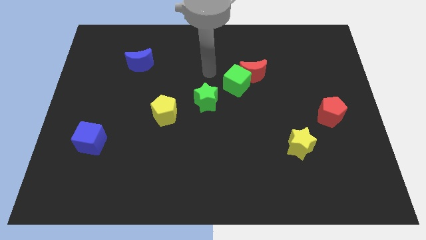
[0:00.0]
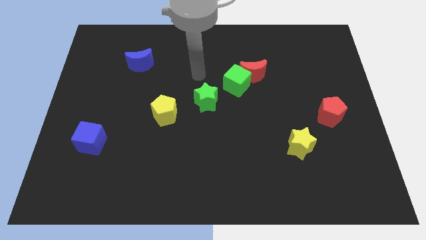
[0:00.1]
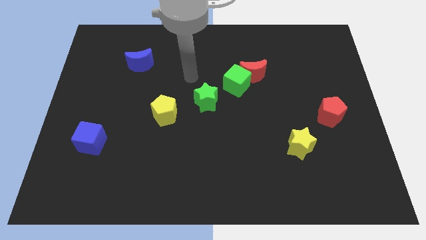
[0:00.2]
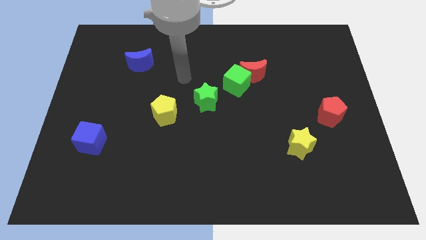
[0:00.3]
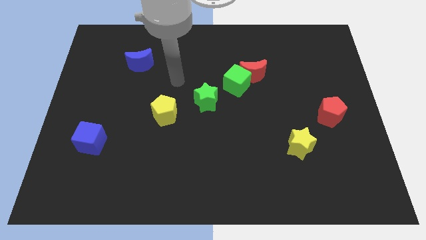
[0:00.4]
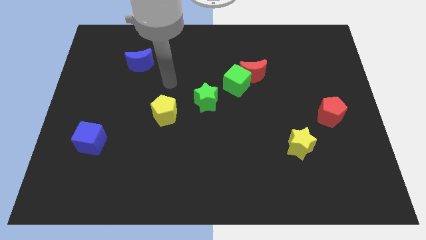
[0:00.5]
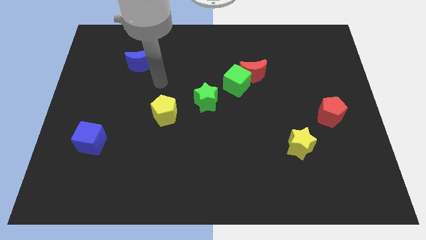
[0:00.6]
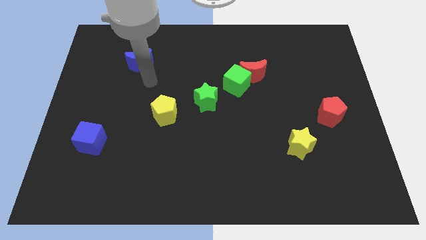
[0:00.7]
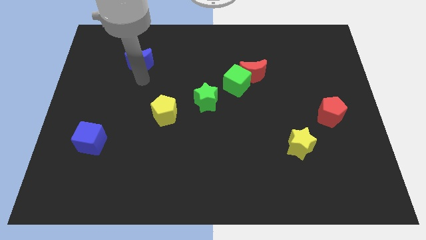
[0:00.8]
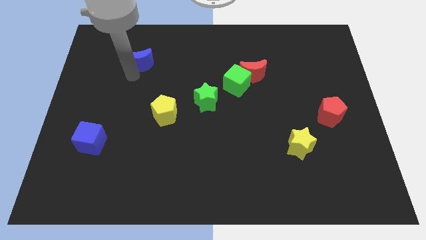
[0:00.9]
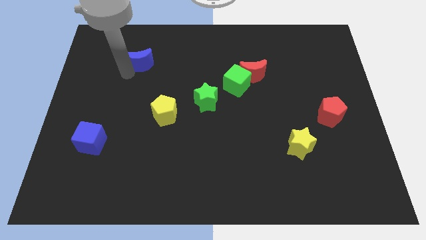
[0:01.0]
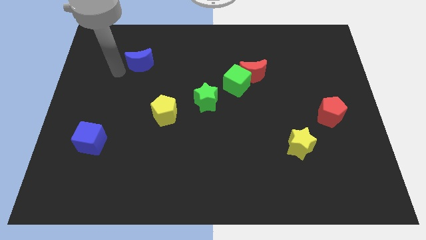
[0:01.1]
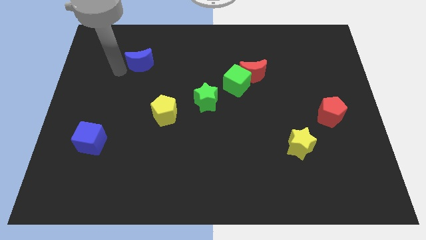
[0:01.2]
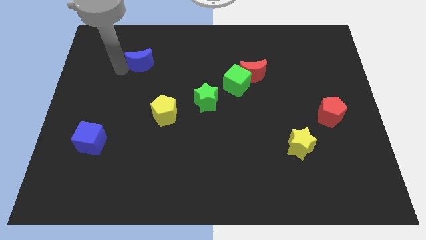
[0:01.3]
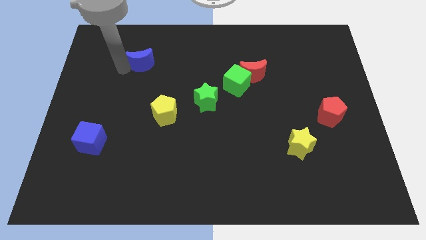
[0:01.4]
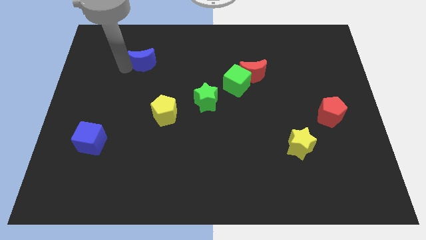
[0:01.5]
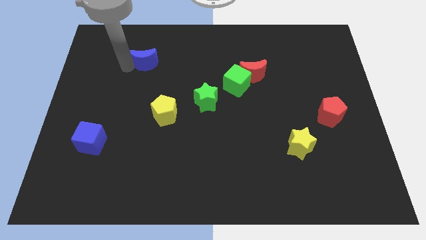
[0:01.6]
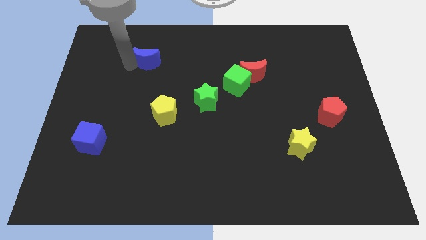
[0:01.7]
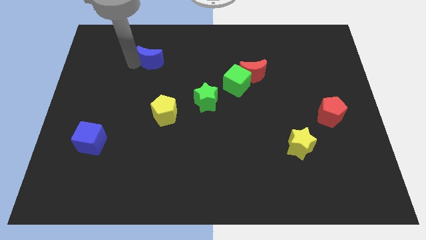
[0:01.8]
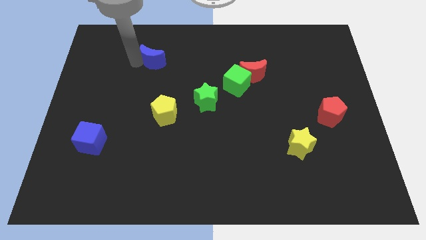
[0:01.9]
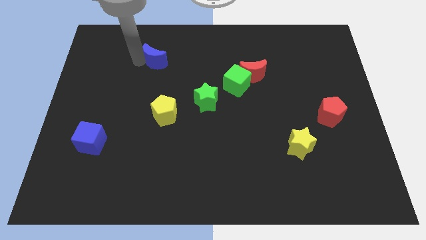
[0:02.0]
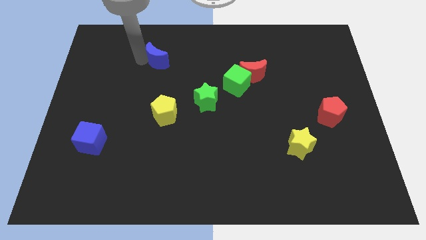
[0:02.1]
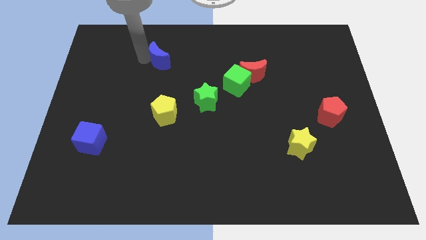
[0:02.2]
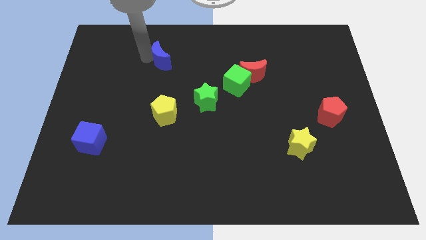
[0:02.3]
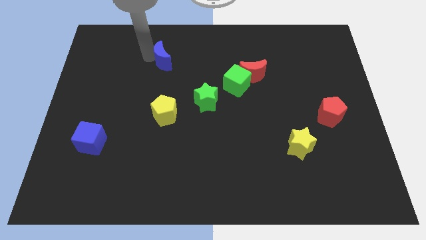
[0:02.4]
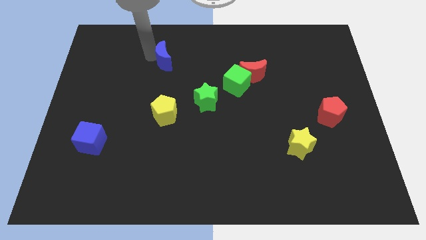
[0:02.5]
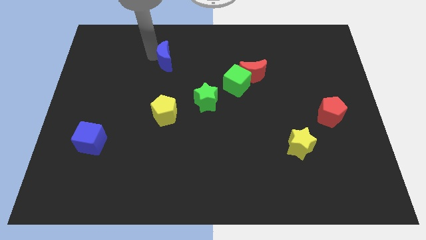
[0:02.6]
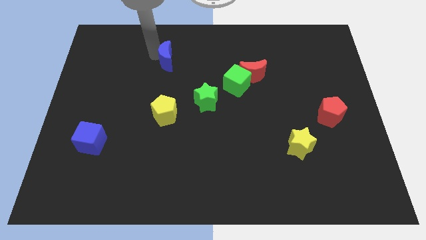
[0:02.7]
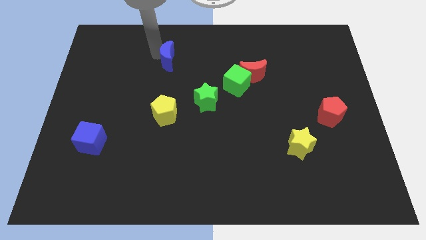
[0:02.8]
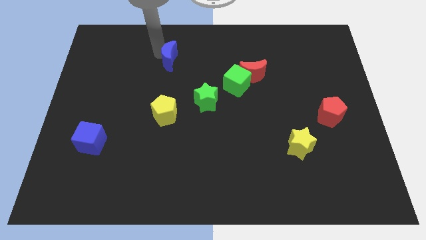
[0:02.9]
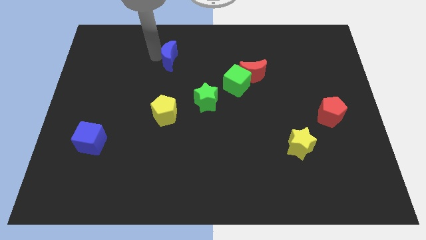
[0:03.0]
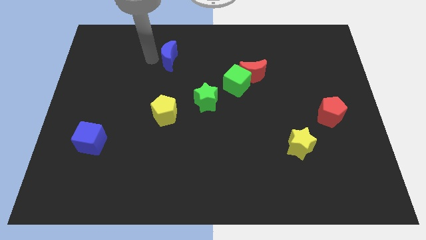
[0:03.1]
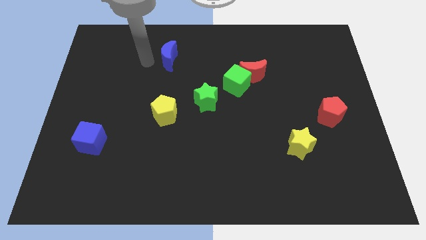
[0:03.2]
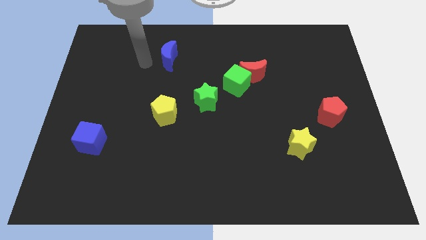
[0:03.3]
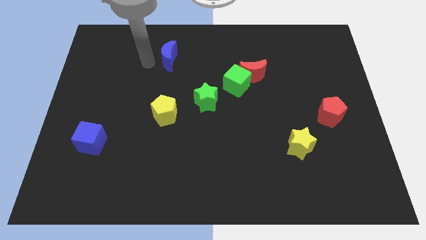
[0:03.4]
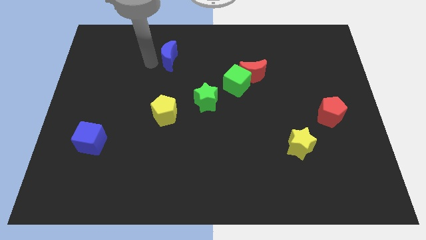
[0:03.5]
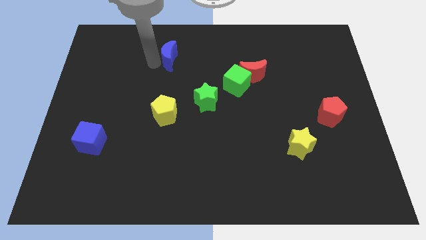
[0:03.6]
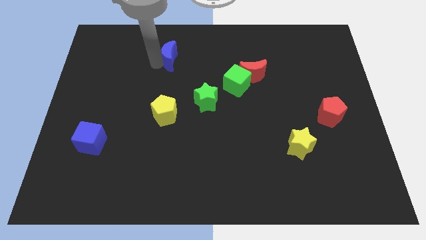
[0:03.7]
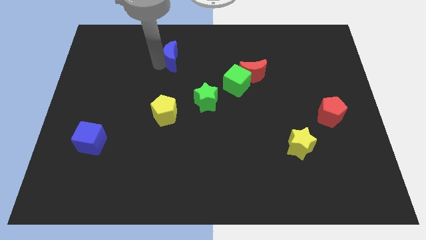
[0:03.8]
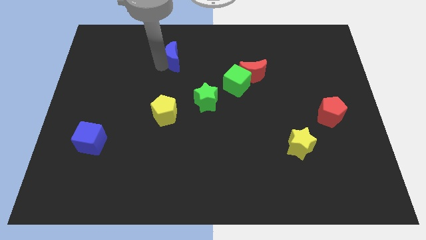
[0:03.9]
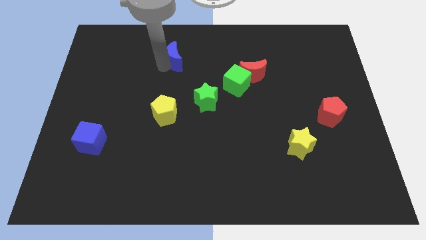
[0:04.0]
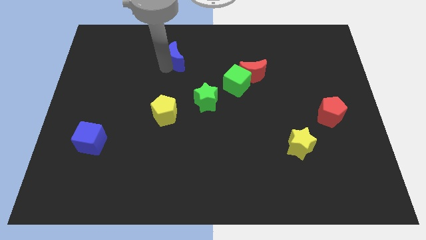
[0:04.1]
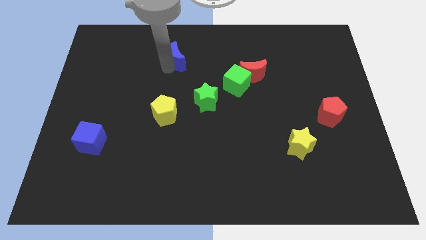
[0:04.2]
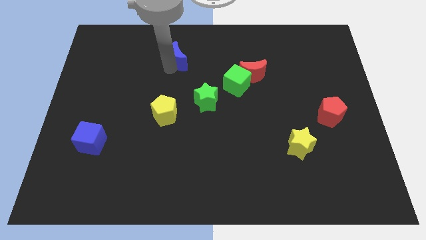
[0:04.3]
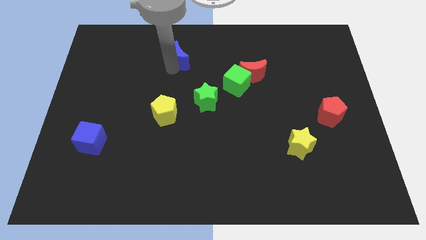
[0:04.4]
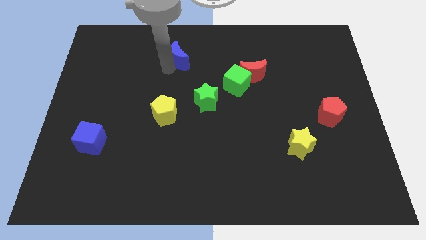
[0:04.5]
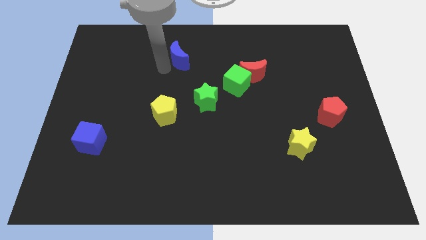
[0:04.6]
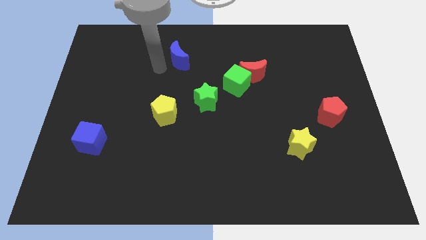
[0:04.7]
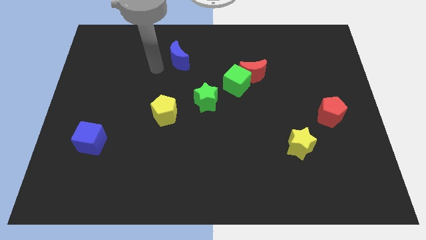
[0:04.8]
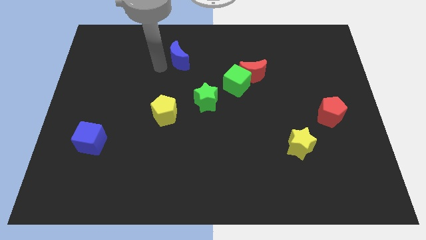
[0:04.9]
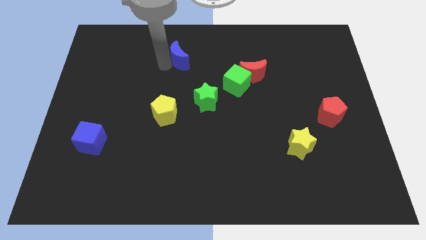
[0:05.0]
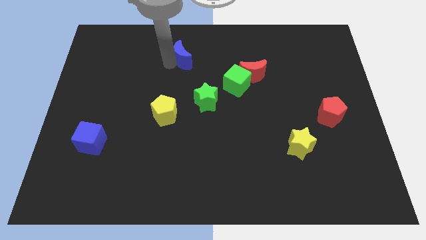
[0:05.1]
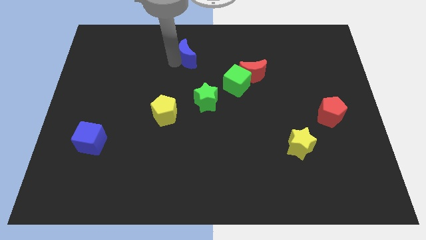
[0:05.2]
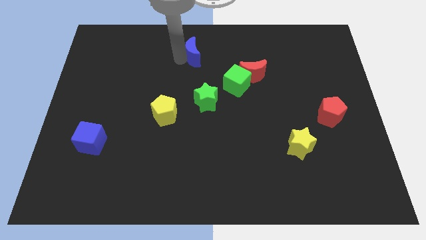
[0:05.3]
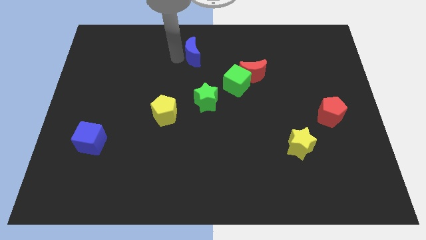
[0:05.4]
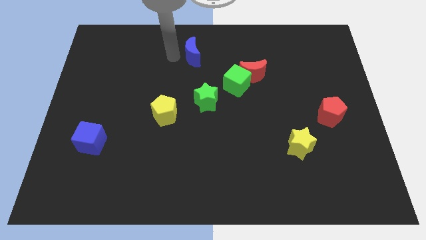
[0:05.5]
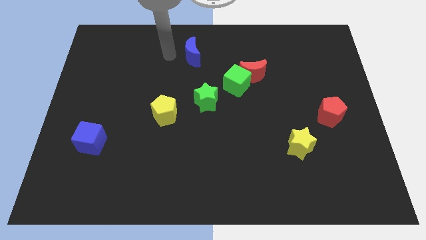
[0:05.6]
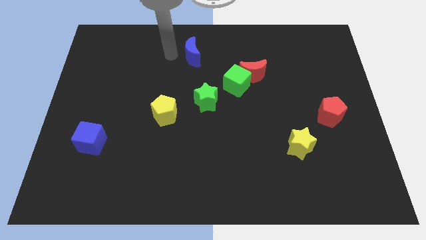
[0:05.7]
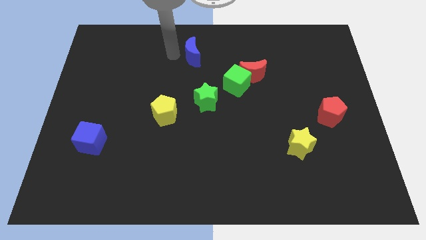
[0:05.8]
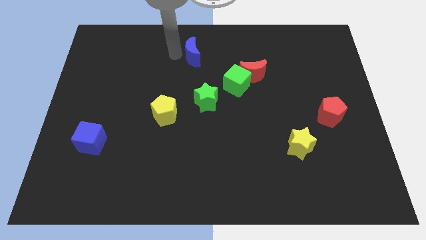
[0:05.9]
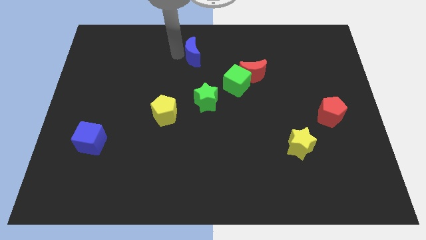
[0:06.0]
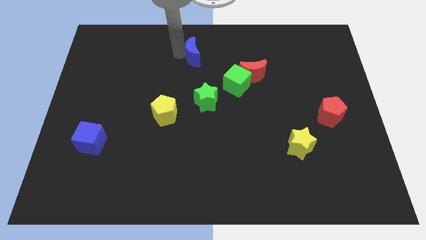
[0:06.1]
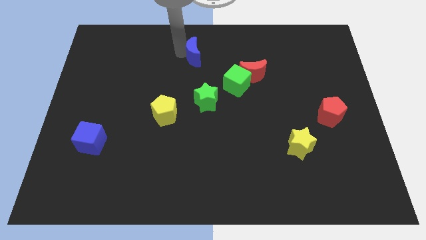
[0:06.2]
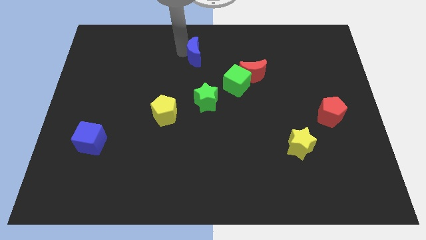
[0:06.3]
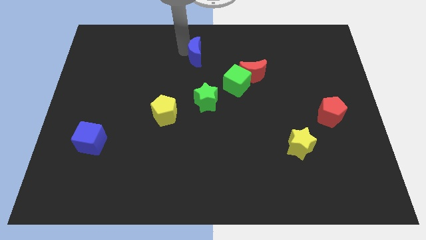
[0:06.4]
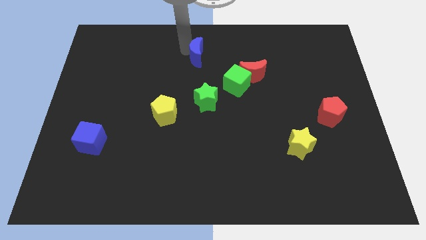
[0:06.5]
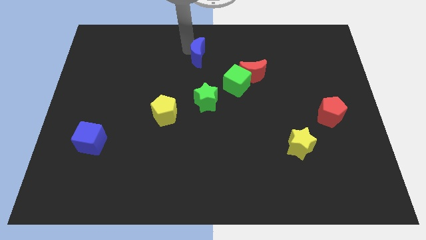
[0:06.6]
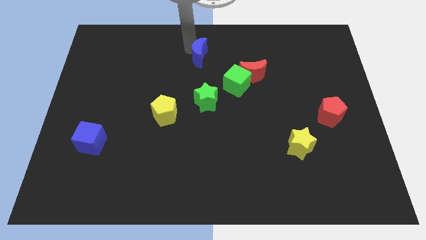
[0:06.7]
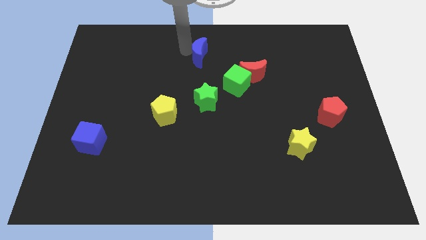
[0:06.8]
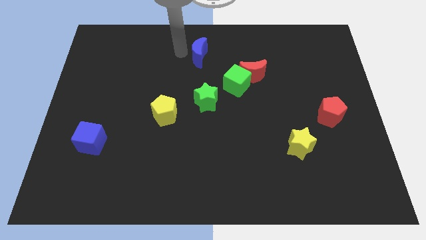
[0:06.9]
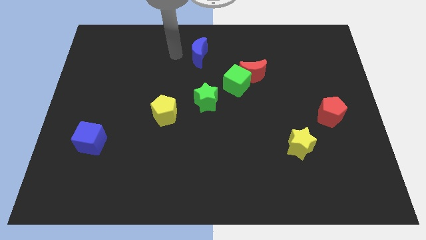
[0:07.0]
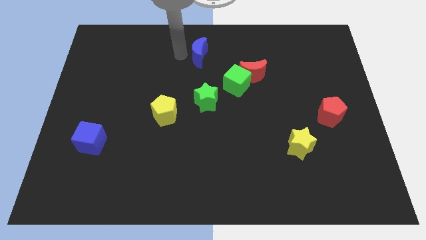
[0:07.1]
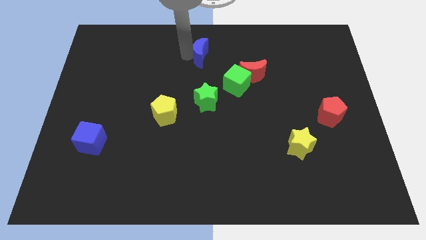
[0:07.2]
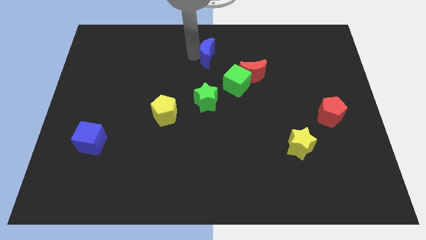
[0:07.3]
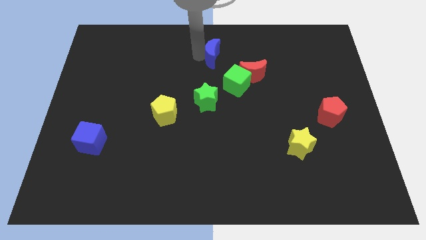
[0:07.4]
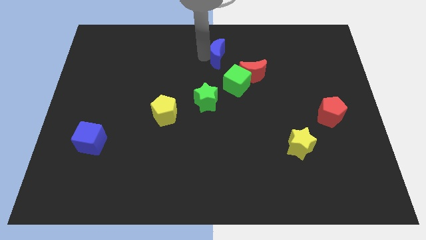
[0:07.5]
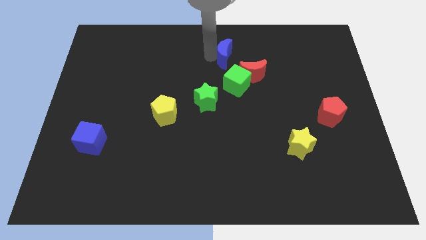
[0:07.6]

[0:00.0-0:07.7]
push the blue moon to the right

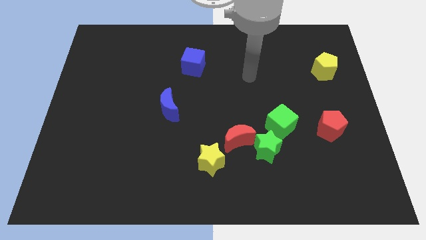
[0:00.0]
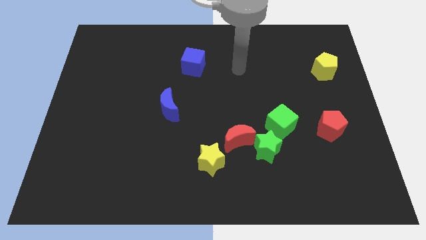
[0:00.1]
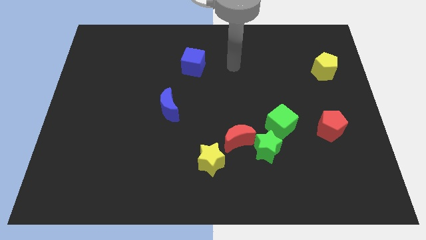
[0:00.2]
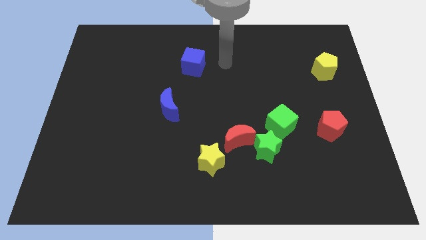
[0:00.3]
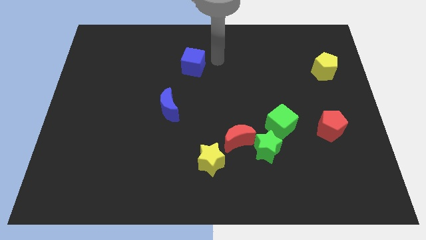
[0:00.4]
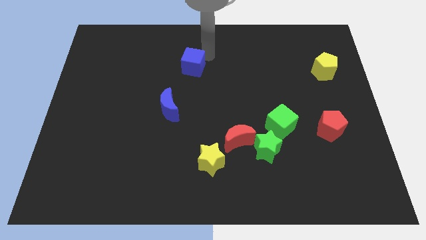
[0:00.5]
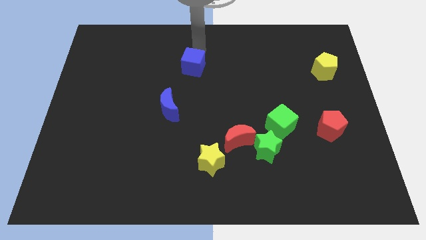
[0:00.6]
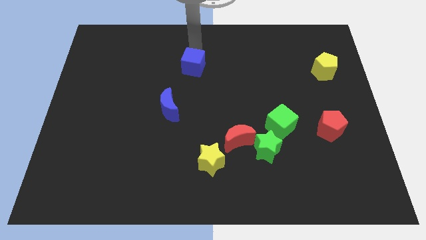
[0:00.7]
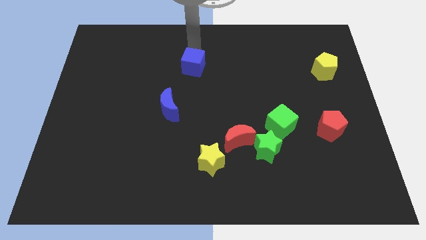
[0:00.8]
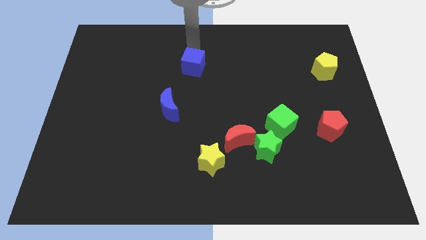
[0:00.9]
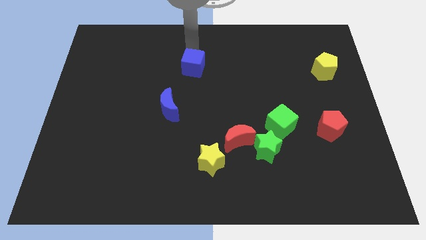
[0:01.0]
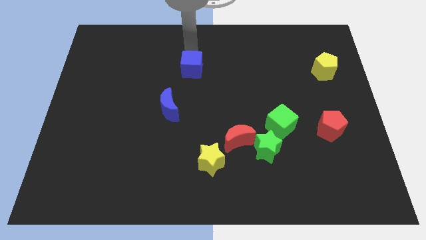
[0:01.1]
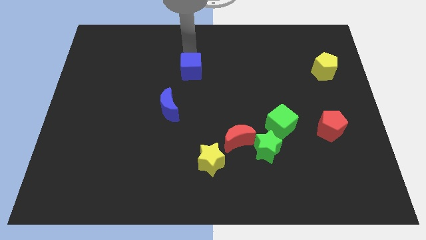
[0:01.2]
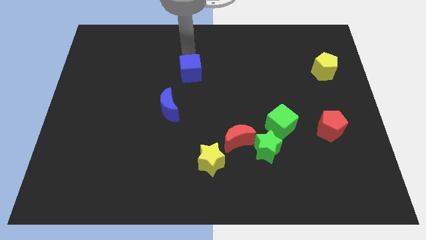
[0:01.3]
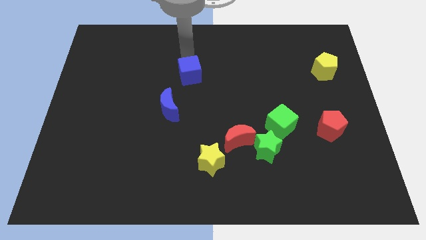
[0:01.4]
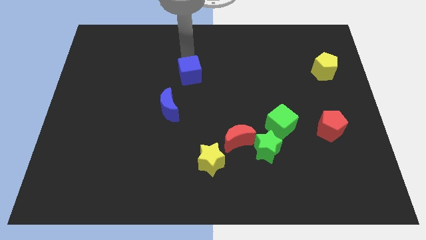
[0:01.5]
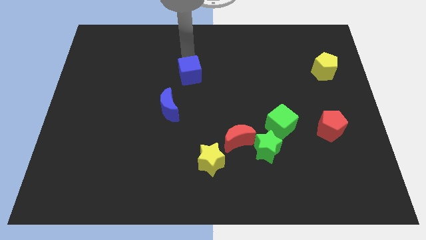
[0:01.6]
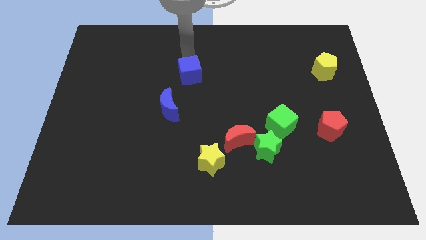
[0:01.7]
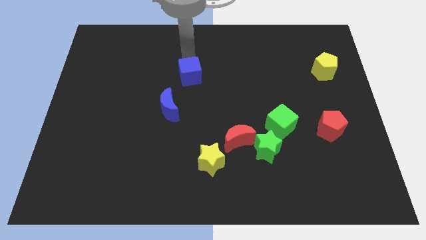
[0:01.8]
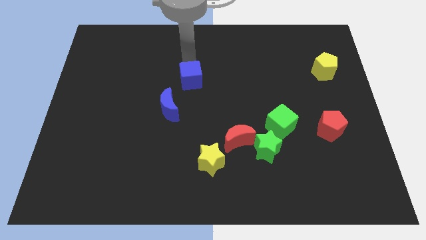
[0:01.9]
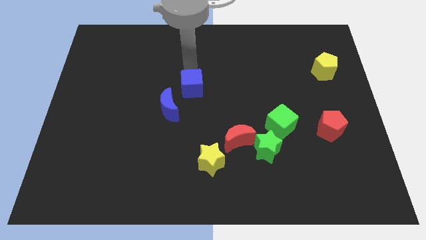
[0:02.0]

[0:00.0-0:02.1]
move the blue cube somewhat downwards
